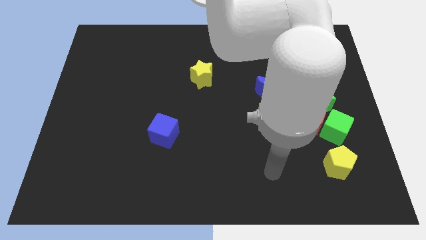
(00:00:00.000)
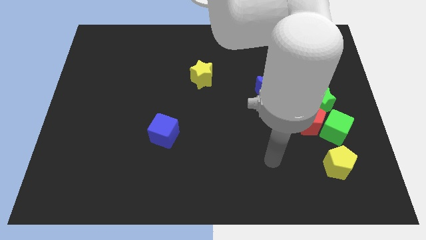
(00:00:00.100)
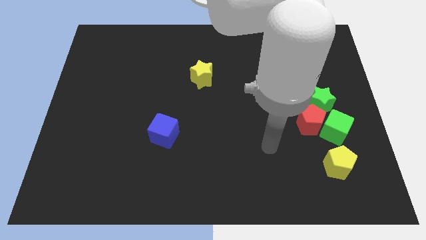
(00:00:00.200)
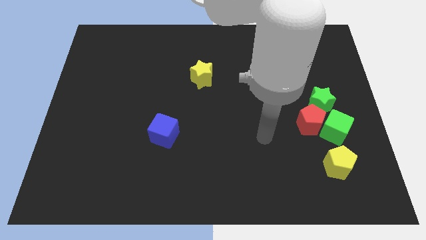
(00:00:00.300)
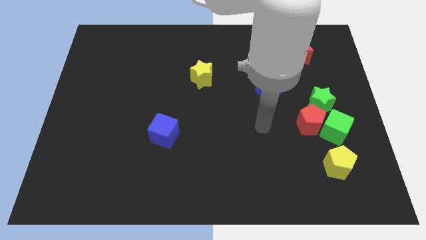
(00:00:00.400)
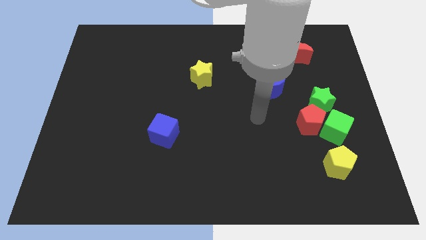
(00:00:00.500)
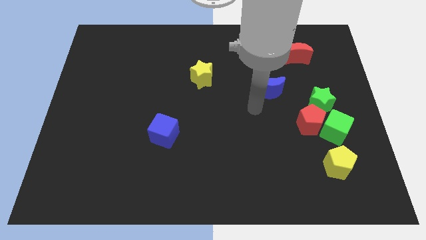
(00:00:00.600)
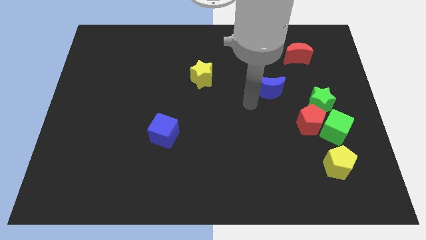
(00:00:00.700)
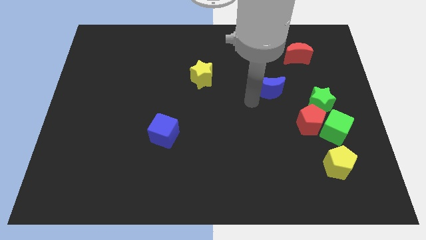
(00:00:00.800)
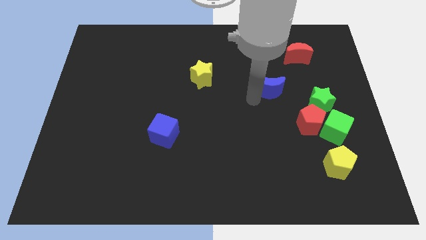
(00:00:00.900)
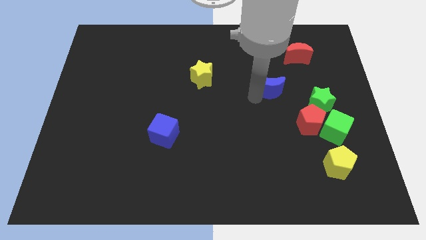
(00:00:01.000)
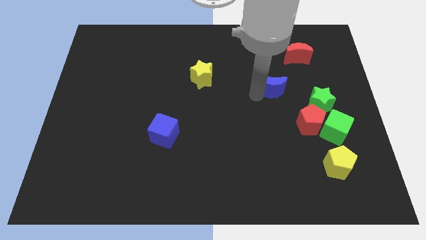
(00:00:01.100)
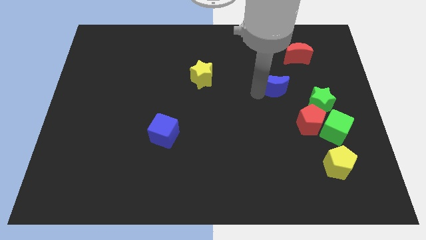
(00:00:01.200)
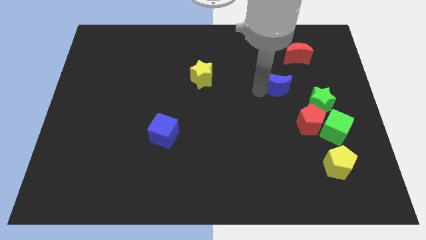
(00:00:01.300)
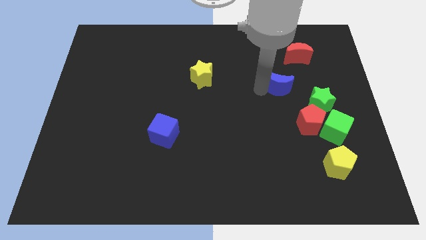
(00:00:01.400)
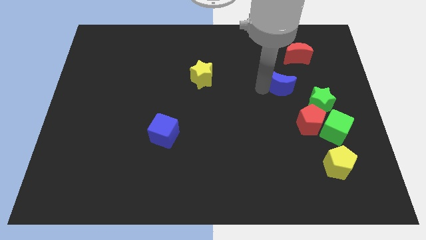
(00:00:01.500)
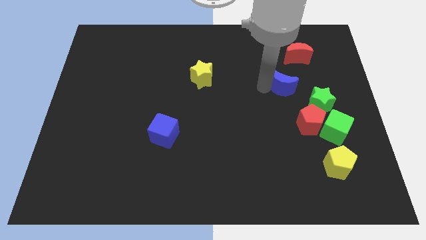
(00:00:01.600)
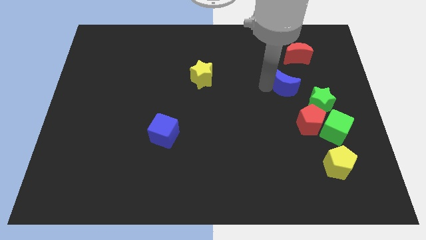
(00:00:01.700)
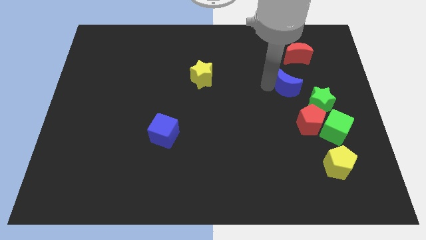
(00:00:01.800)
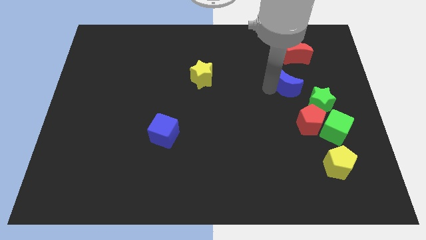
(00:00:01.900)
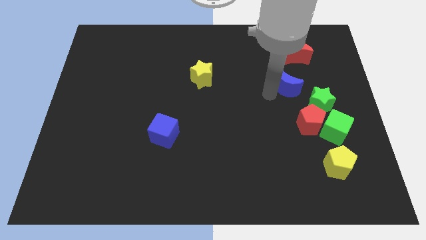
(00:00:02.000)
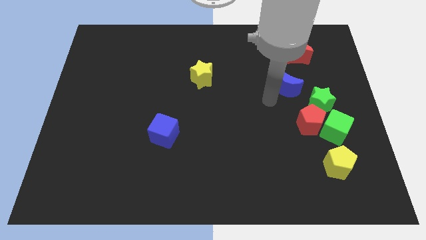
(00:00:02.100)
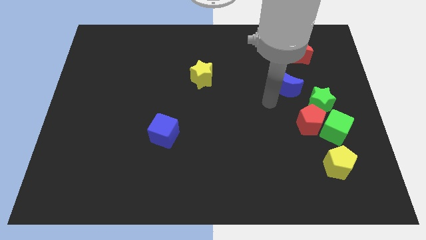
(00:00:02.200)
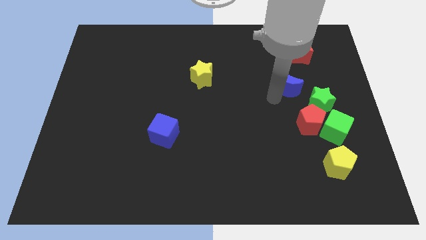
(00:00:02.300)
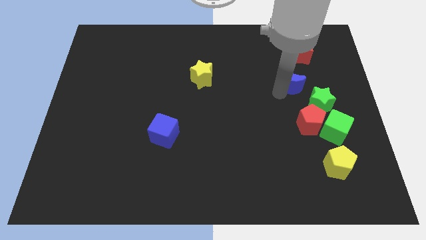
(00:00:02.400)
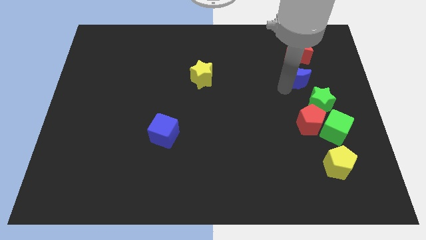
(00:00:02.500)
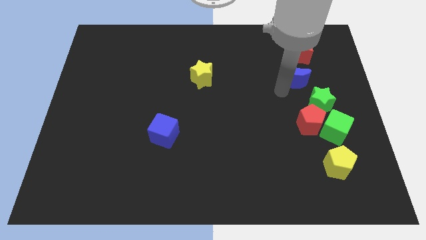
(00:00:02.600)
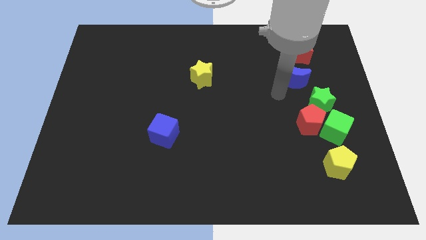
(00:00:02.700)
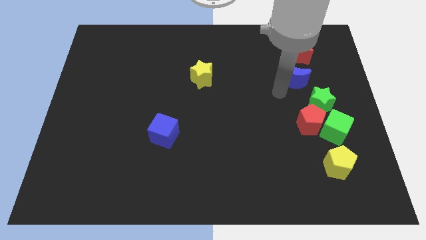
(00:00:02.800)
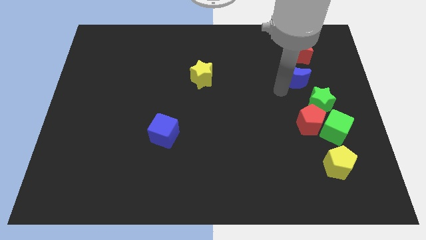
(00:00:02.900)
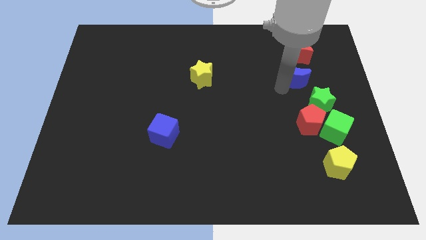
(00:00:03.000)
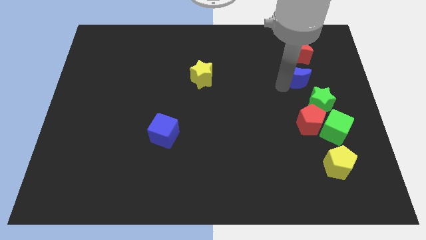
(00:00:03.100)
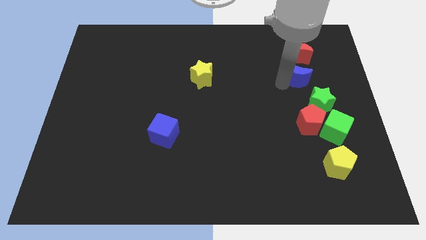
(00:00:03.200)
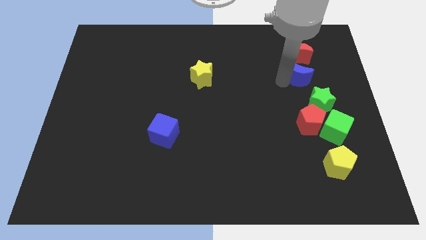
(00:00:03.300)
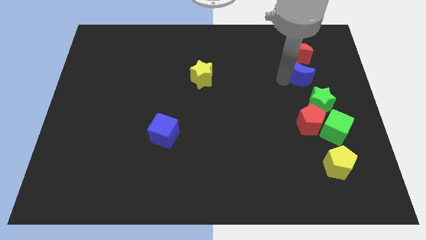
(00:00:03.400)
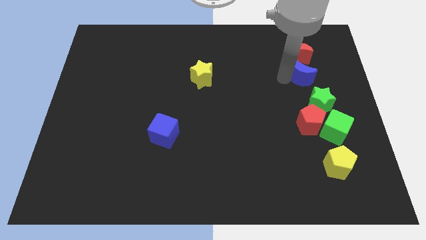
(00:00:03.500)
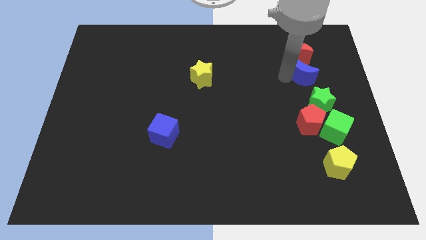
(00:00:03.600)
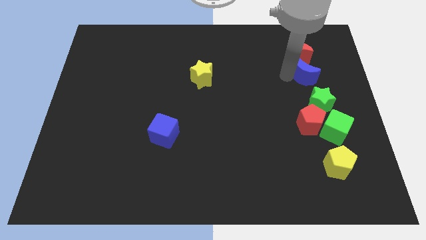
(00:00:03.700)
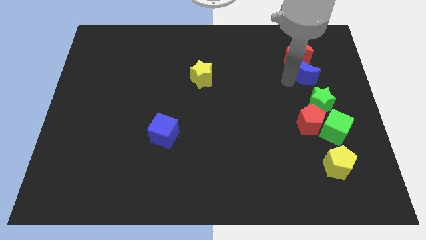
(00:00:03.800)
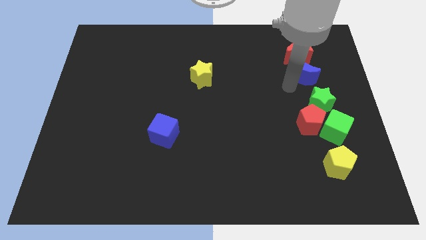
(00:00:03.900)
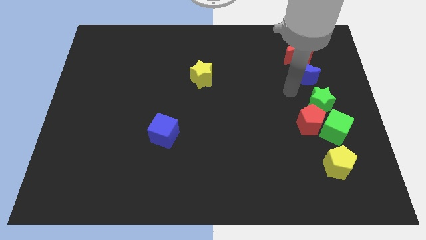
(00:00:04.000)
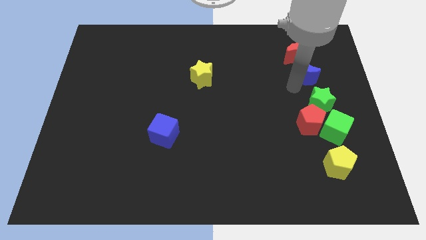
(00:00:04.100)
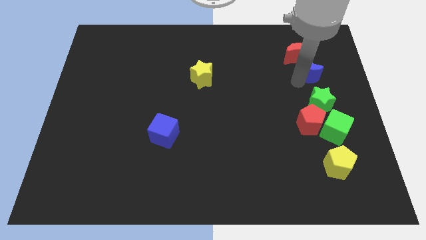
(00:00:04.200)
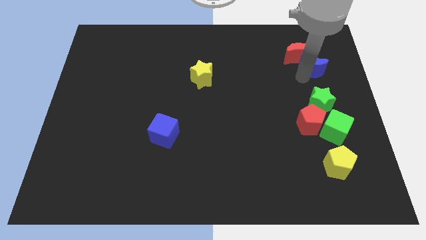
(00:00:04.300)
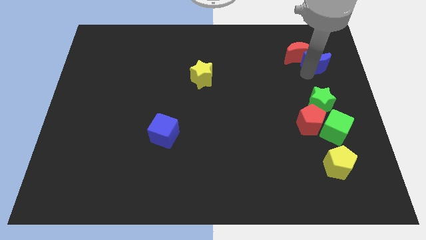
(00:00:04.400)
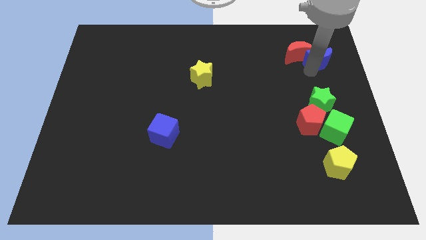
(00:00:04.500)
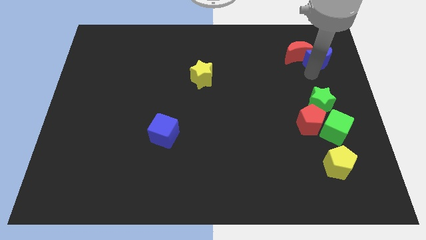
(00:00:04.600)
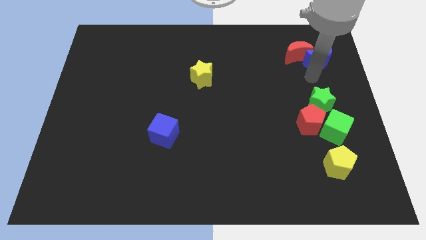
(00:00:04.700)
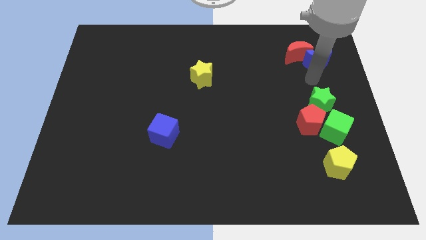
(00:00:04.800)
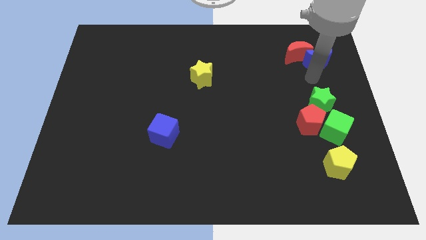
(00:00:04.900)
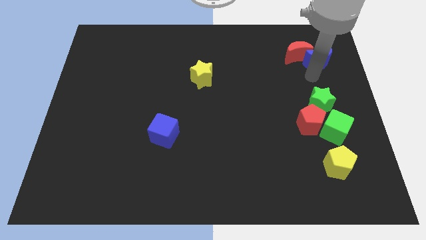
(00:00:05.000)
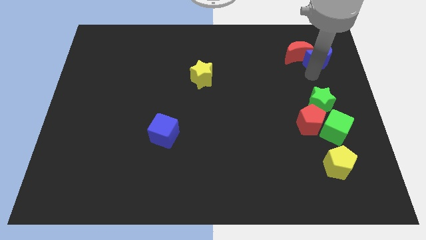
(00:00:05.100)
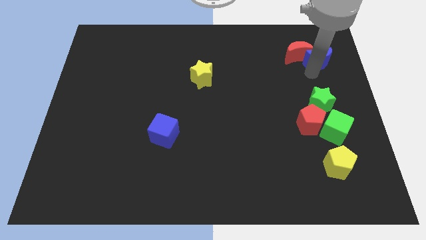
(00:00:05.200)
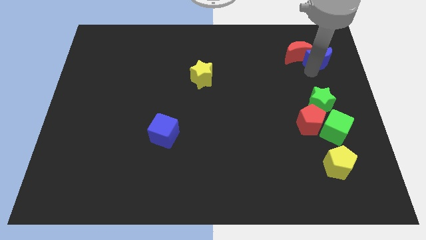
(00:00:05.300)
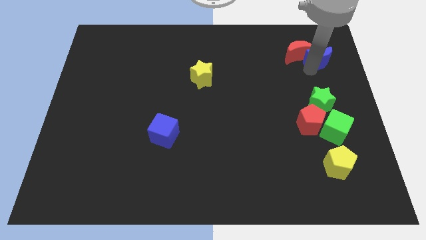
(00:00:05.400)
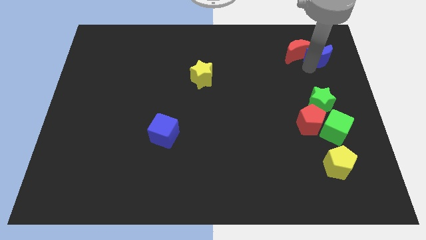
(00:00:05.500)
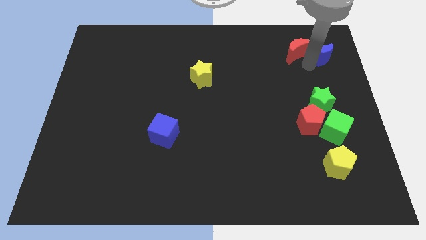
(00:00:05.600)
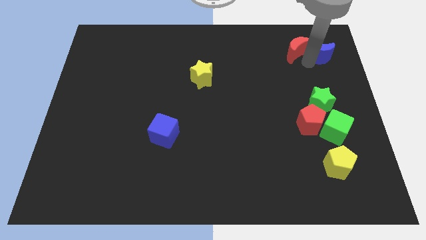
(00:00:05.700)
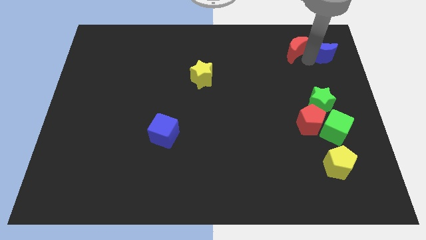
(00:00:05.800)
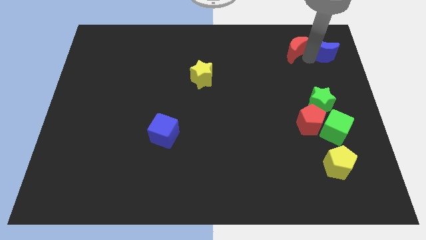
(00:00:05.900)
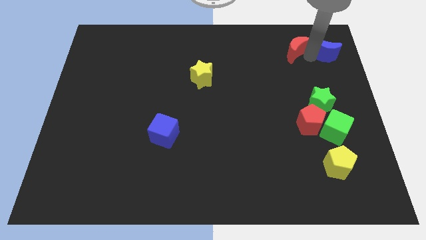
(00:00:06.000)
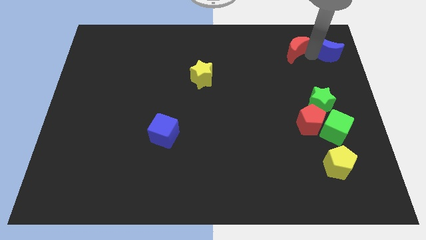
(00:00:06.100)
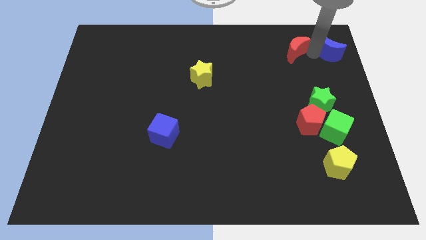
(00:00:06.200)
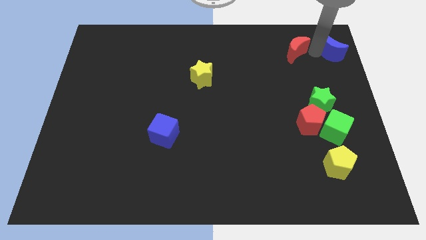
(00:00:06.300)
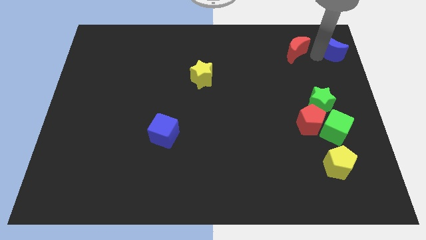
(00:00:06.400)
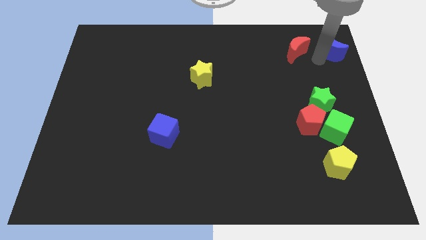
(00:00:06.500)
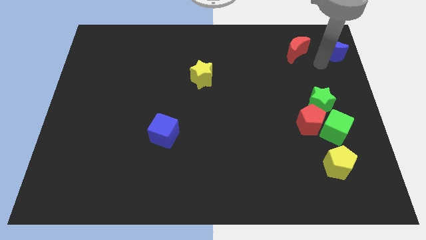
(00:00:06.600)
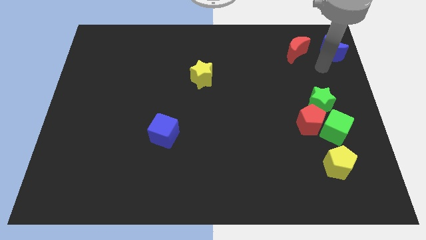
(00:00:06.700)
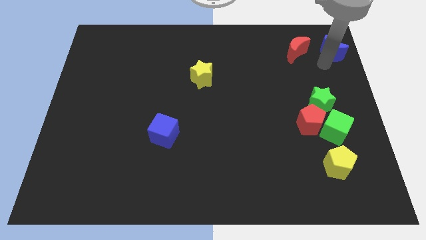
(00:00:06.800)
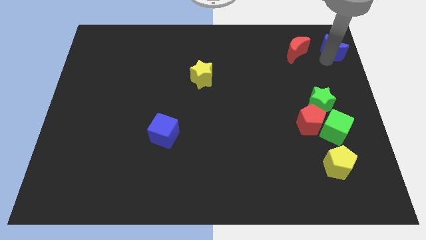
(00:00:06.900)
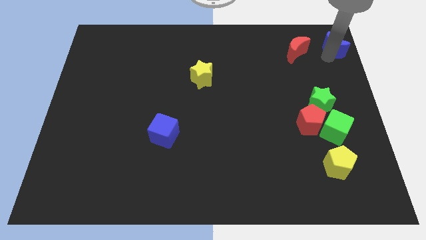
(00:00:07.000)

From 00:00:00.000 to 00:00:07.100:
push the blue moon to the top right corner
